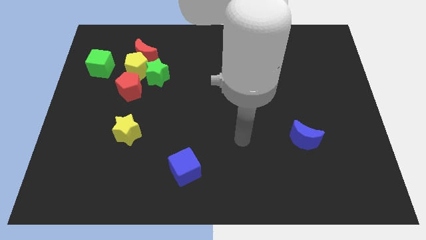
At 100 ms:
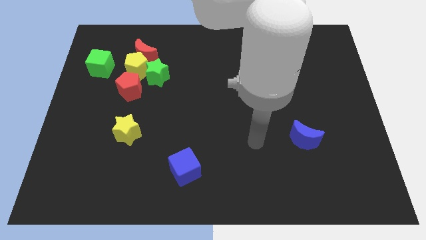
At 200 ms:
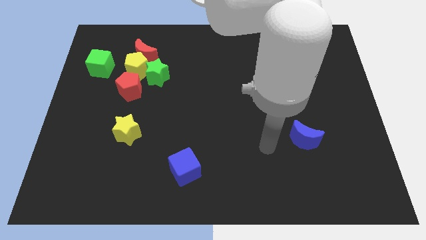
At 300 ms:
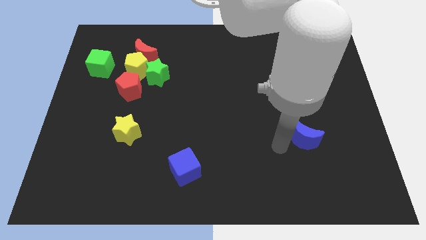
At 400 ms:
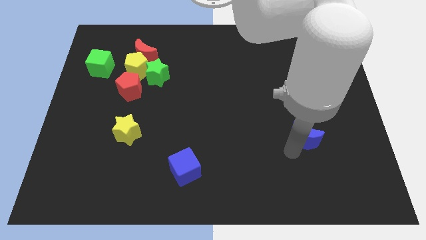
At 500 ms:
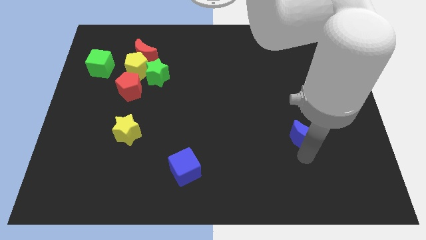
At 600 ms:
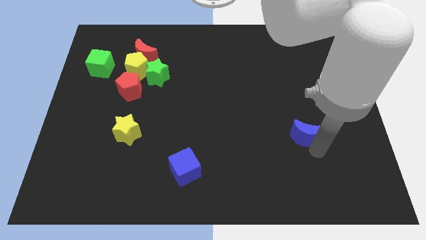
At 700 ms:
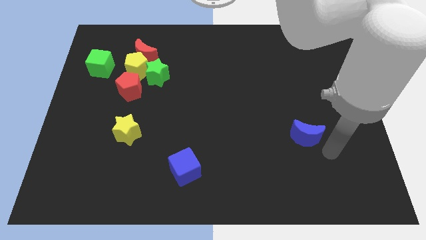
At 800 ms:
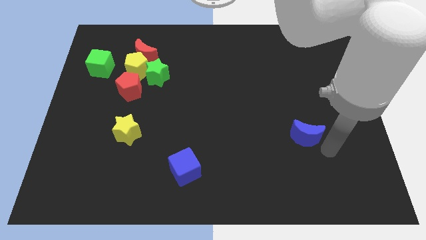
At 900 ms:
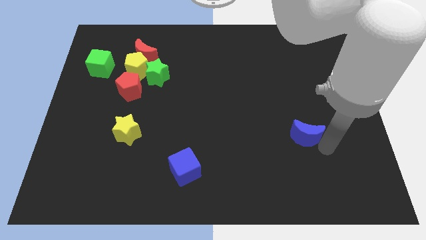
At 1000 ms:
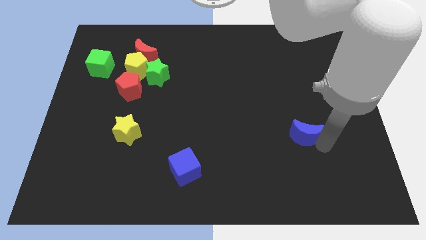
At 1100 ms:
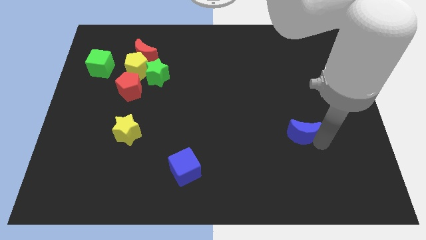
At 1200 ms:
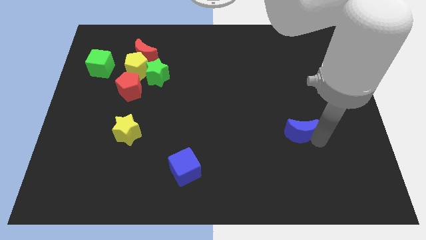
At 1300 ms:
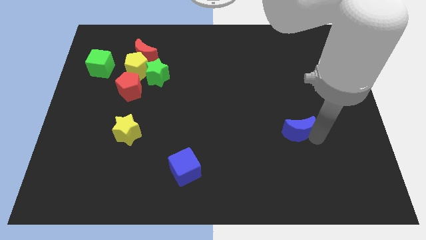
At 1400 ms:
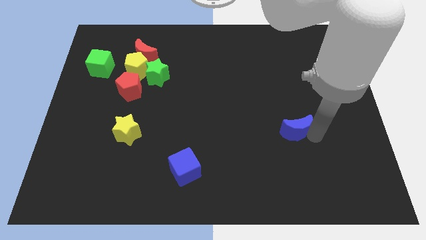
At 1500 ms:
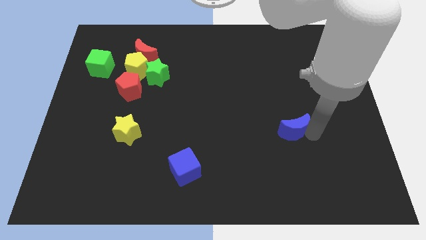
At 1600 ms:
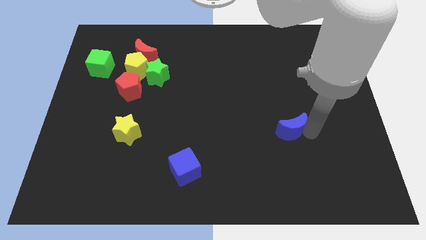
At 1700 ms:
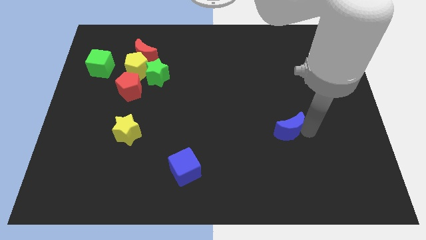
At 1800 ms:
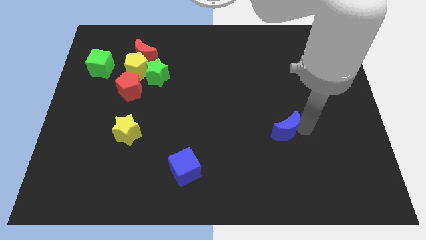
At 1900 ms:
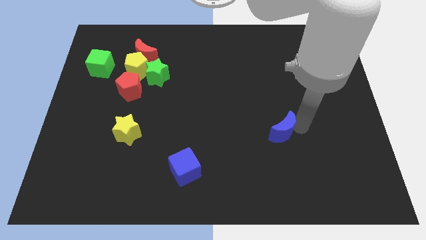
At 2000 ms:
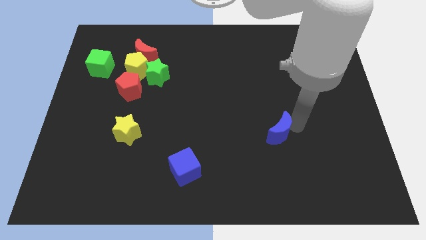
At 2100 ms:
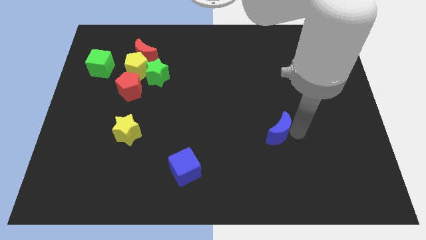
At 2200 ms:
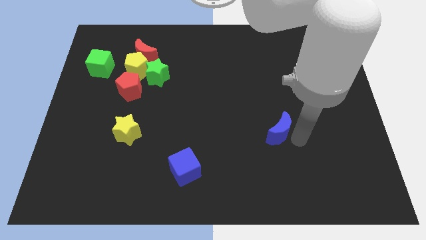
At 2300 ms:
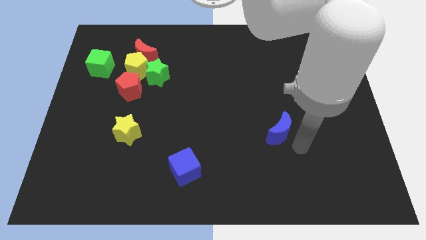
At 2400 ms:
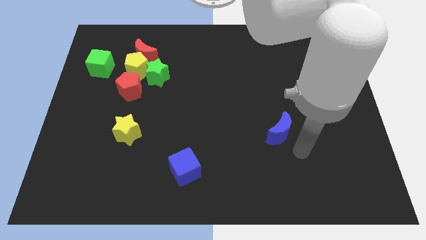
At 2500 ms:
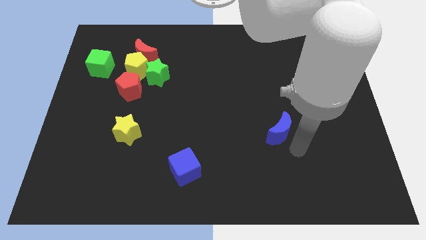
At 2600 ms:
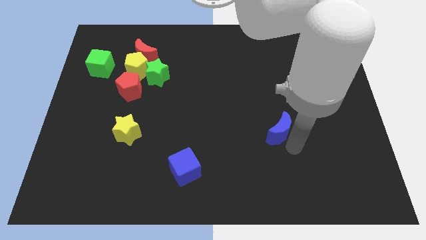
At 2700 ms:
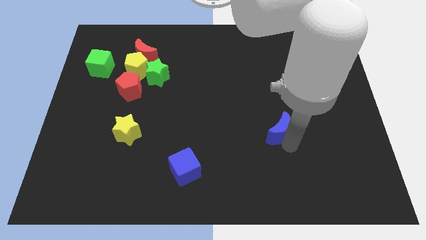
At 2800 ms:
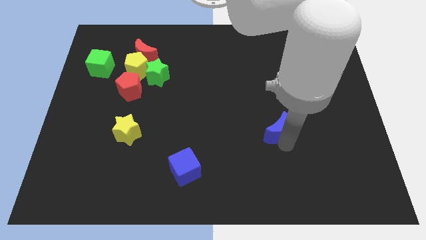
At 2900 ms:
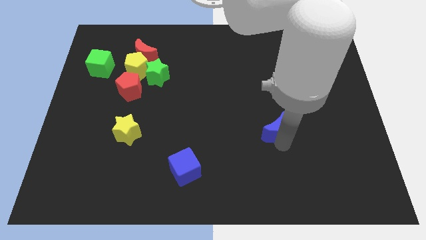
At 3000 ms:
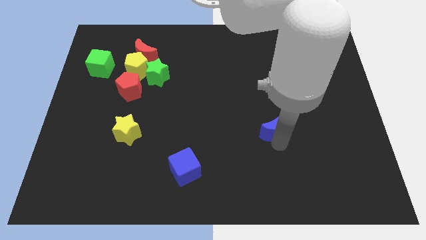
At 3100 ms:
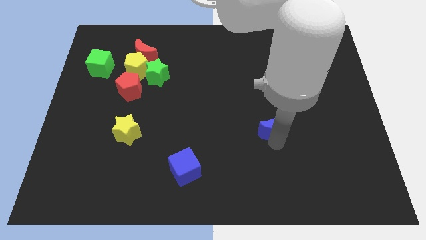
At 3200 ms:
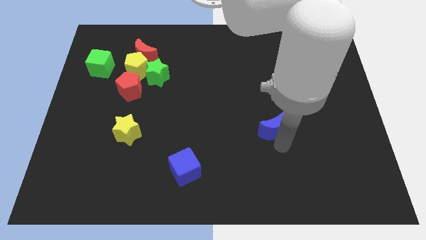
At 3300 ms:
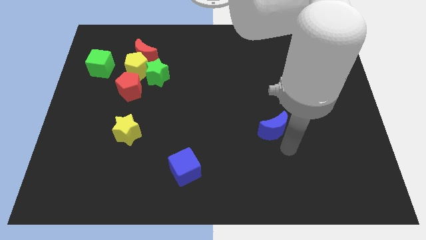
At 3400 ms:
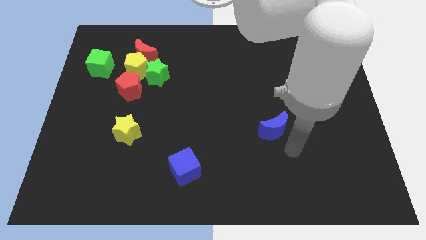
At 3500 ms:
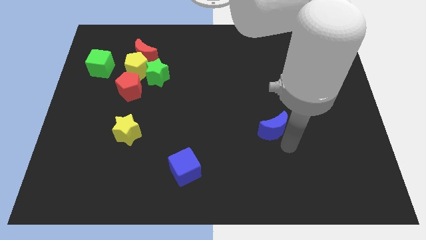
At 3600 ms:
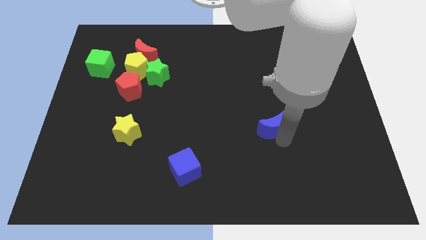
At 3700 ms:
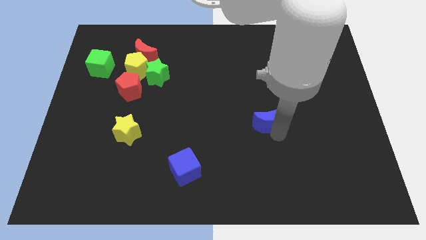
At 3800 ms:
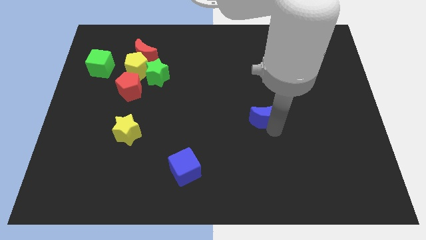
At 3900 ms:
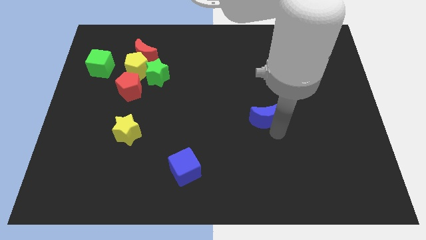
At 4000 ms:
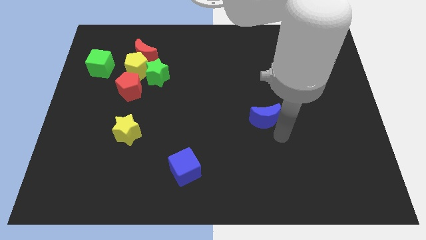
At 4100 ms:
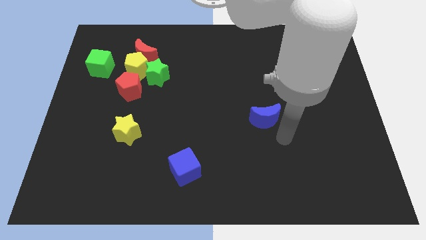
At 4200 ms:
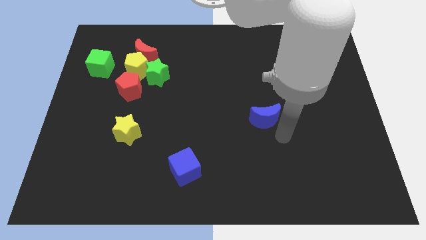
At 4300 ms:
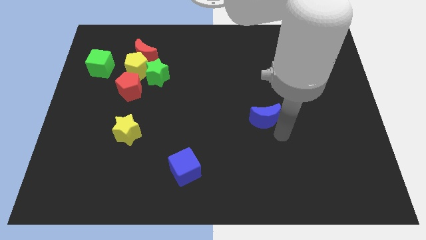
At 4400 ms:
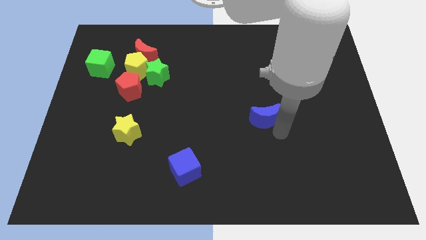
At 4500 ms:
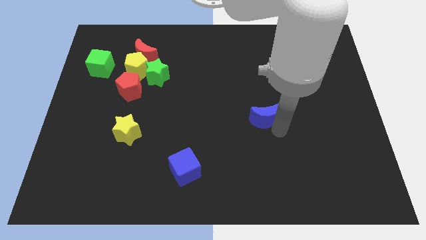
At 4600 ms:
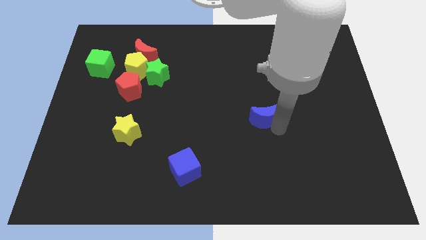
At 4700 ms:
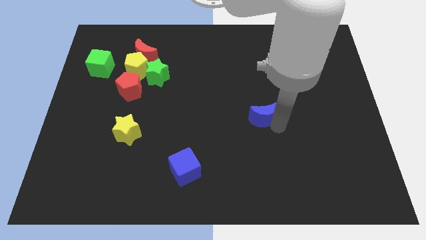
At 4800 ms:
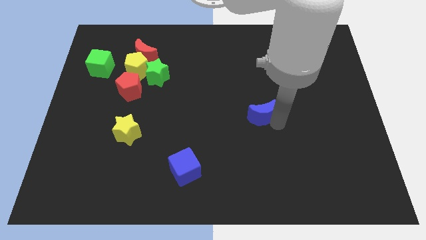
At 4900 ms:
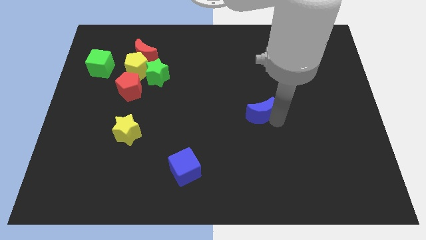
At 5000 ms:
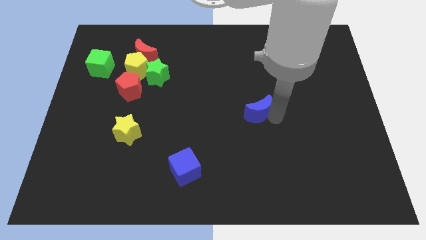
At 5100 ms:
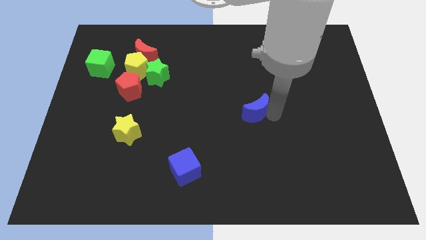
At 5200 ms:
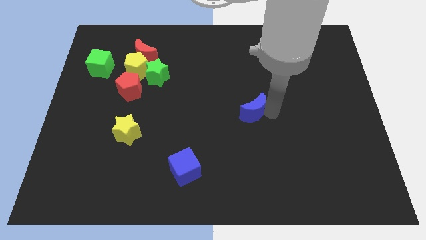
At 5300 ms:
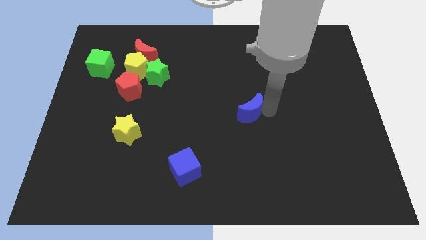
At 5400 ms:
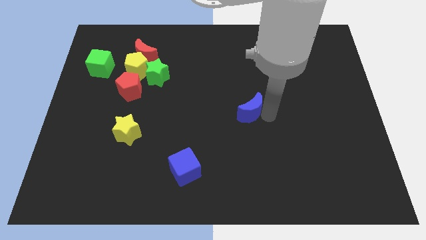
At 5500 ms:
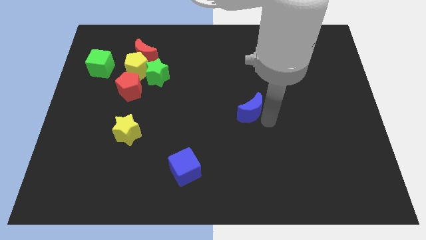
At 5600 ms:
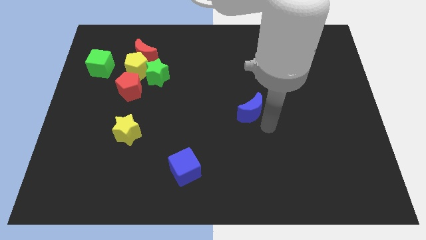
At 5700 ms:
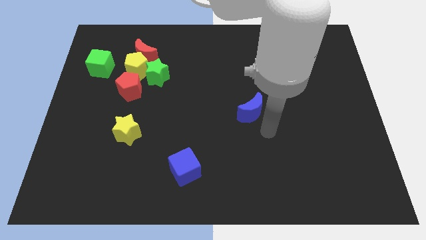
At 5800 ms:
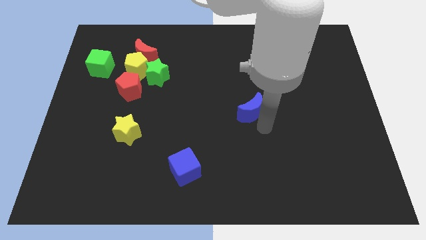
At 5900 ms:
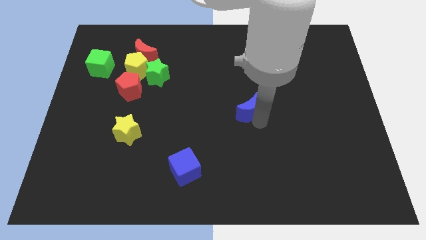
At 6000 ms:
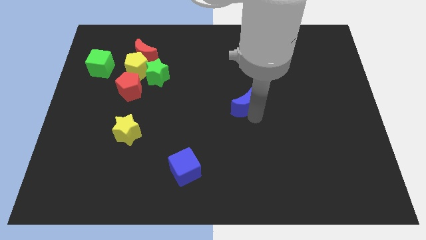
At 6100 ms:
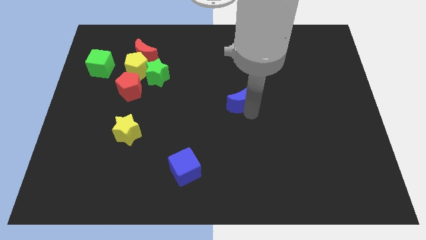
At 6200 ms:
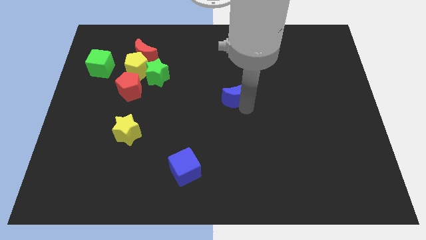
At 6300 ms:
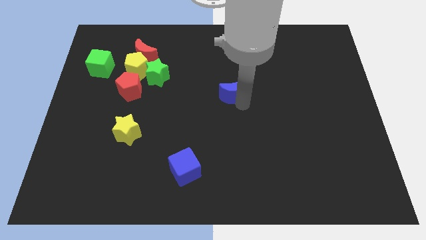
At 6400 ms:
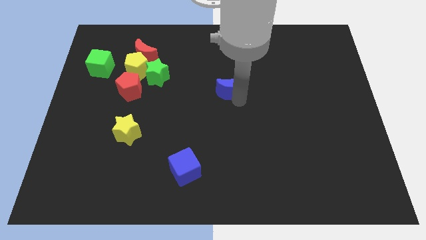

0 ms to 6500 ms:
slide the blue moon diagonally up and left

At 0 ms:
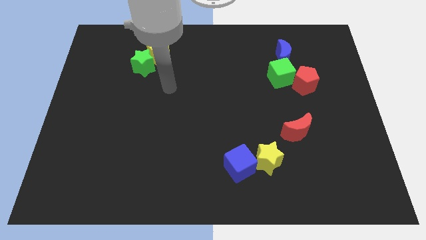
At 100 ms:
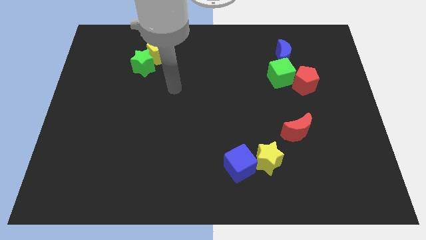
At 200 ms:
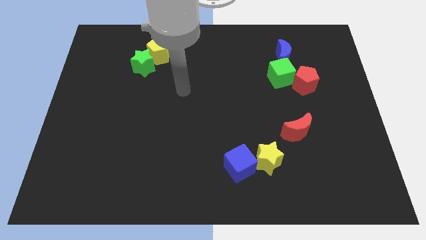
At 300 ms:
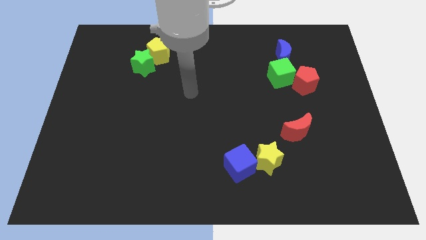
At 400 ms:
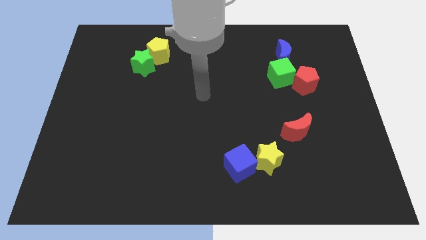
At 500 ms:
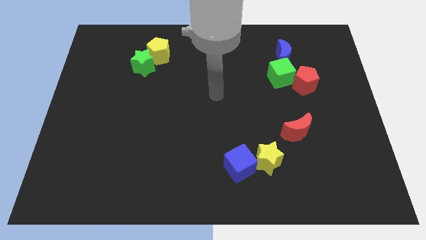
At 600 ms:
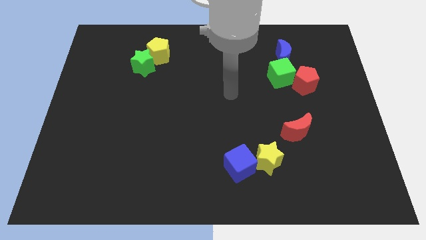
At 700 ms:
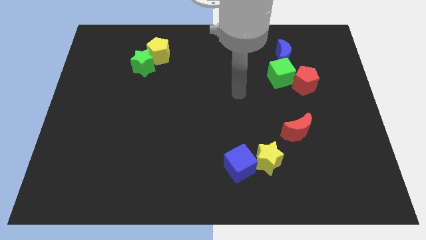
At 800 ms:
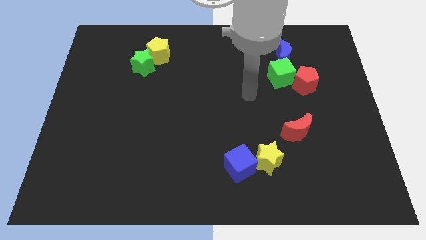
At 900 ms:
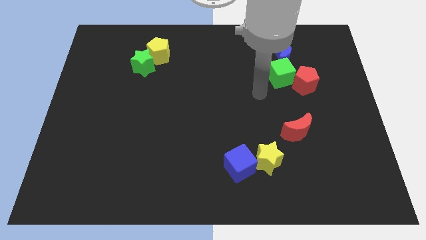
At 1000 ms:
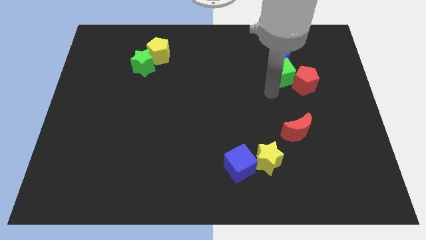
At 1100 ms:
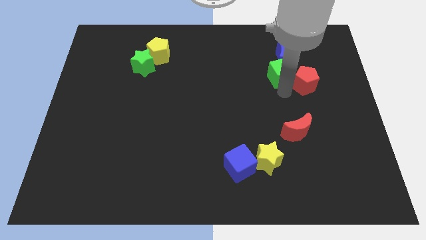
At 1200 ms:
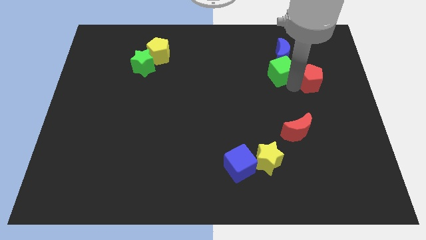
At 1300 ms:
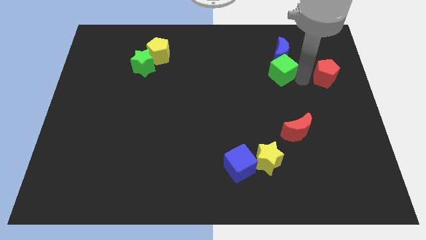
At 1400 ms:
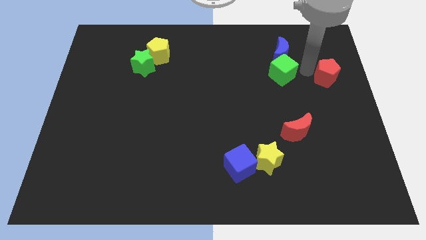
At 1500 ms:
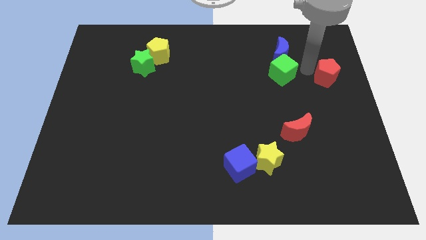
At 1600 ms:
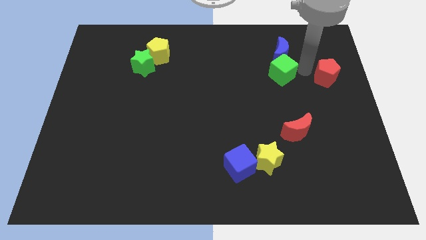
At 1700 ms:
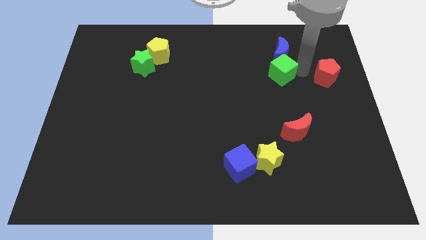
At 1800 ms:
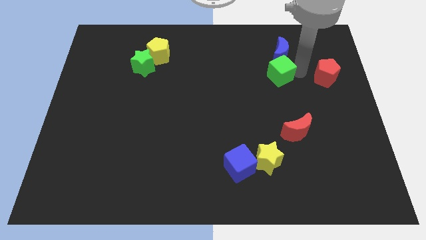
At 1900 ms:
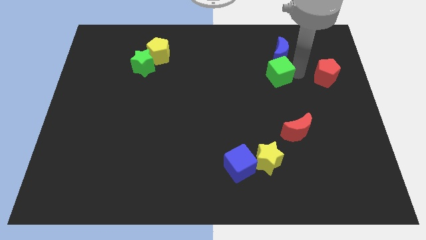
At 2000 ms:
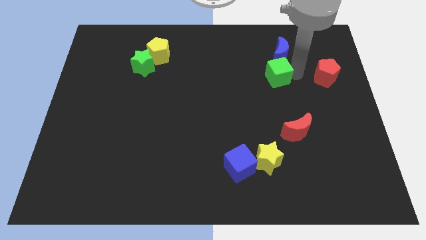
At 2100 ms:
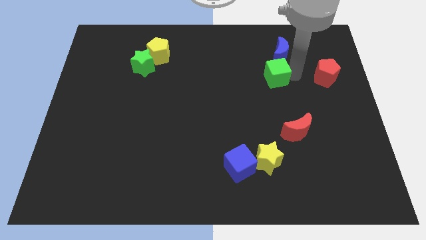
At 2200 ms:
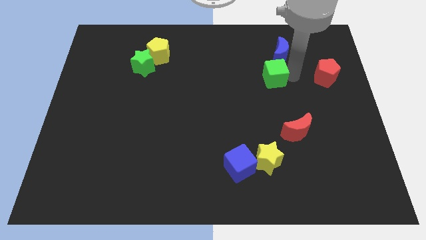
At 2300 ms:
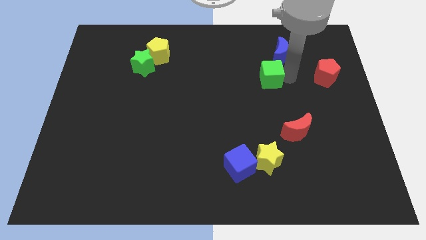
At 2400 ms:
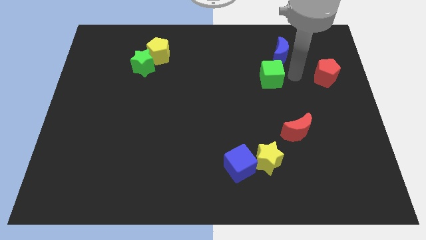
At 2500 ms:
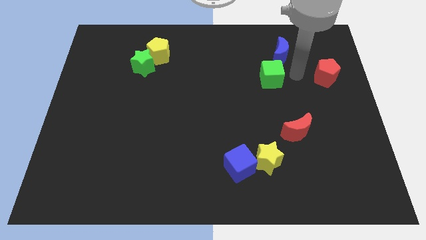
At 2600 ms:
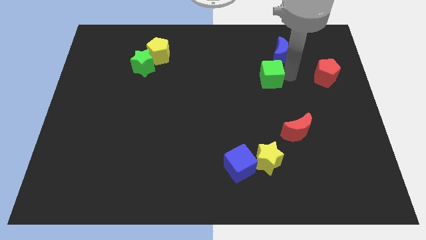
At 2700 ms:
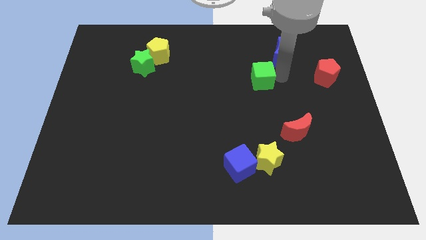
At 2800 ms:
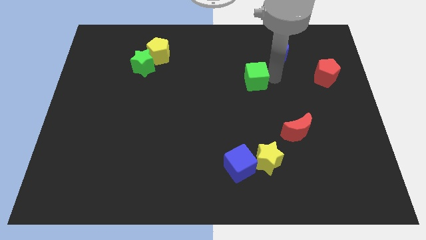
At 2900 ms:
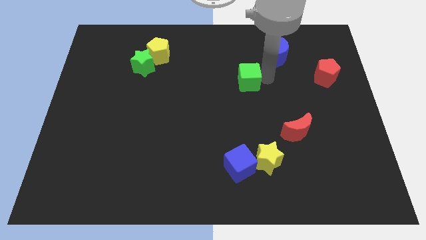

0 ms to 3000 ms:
slightly push the green cube left
